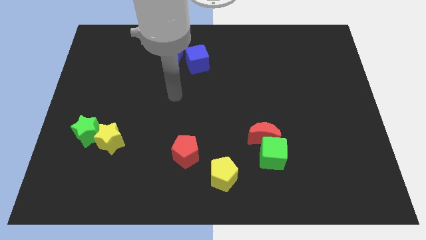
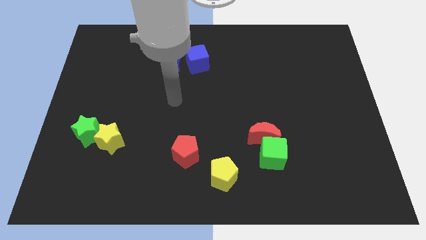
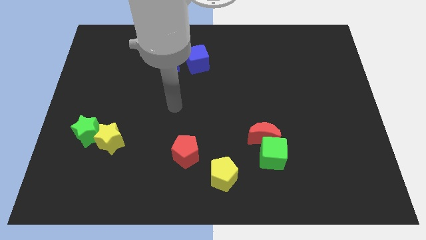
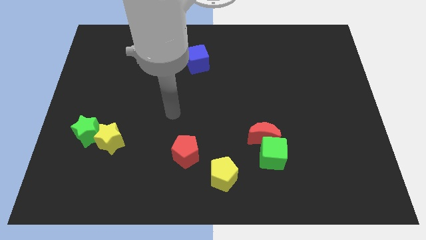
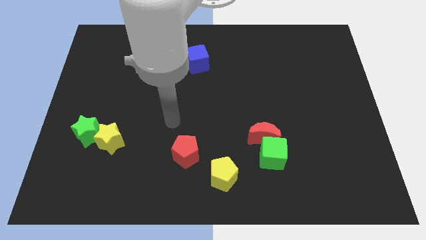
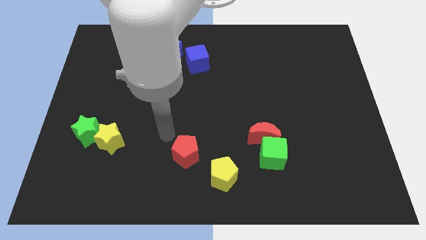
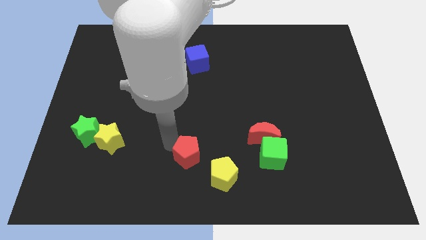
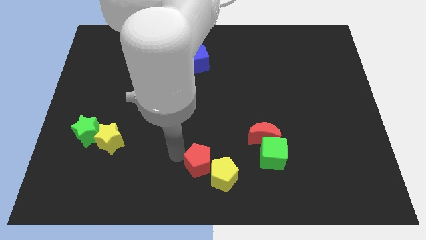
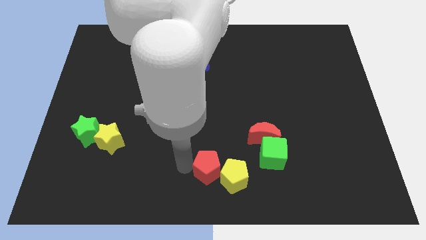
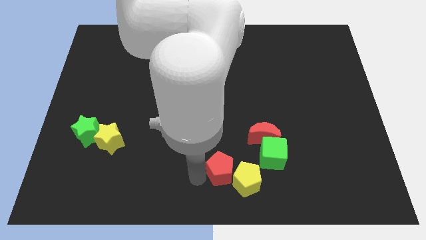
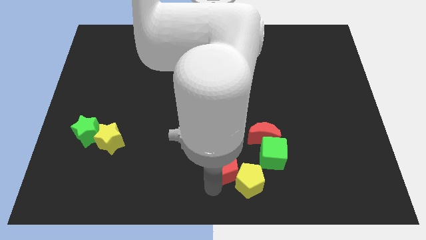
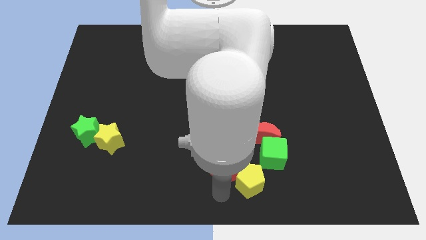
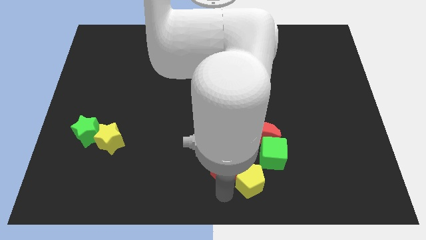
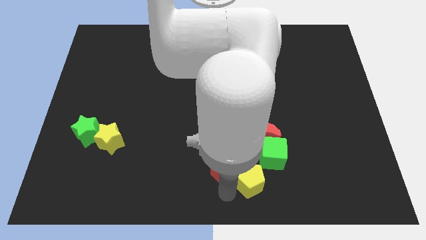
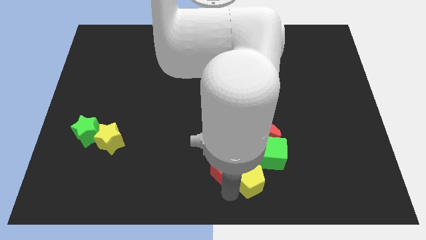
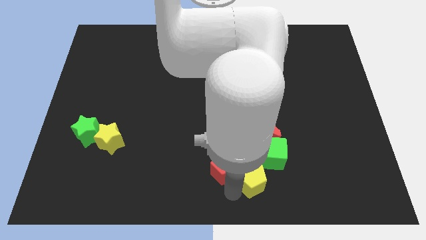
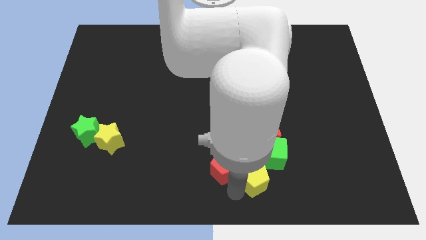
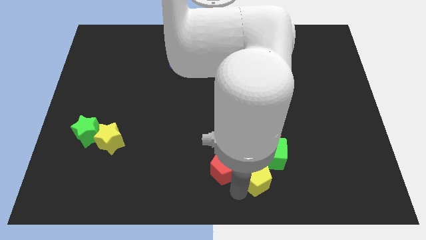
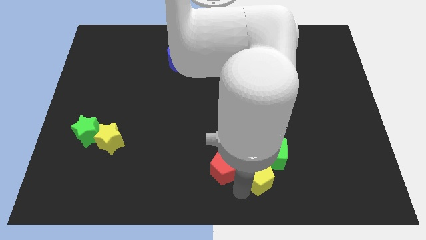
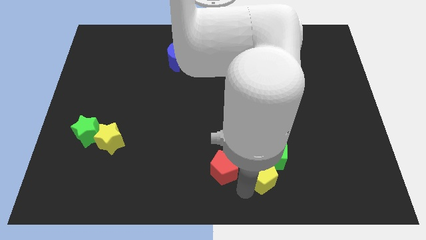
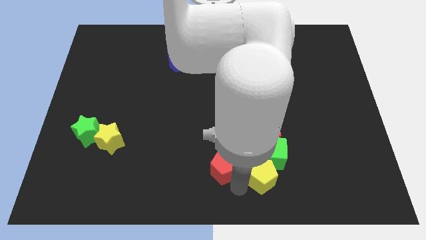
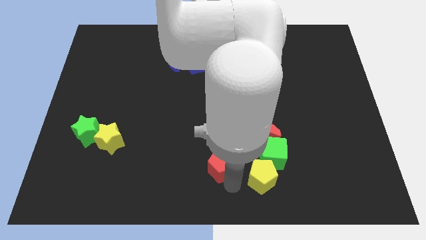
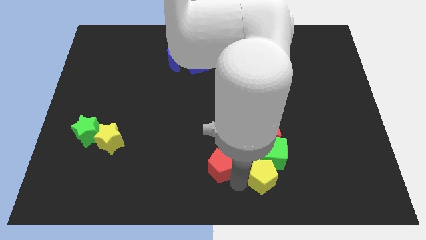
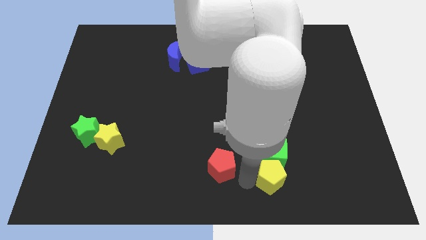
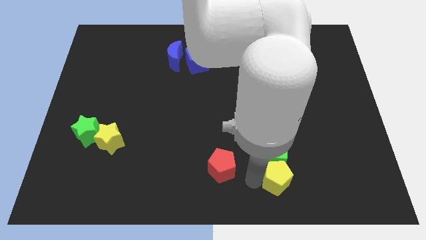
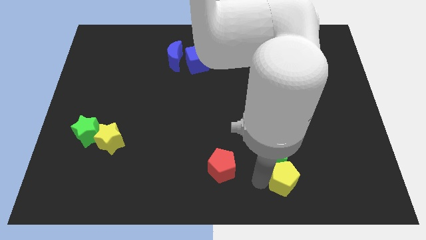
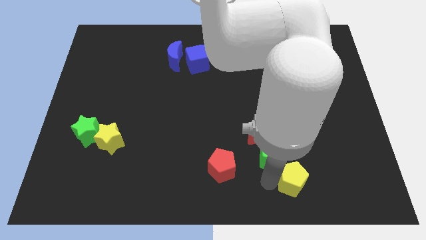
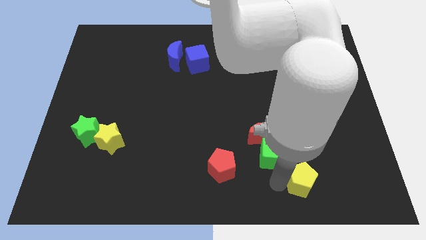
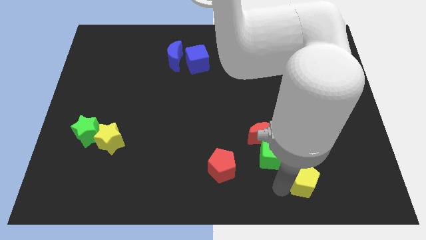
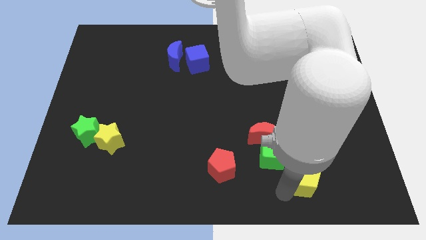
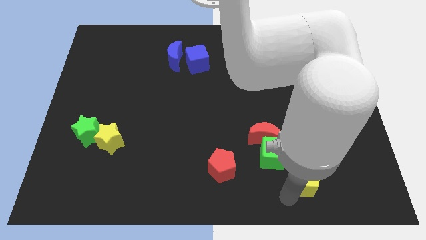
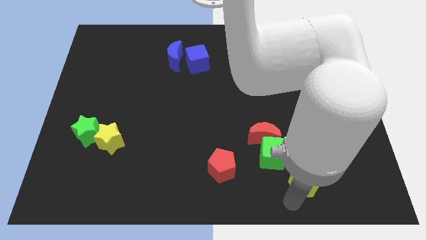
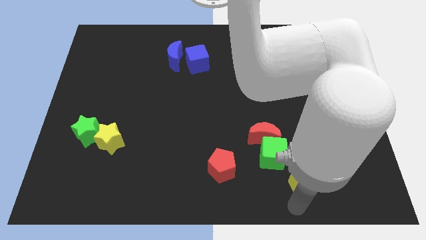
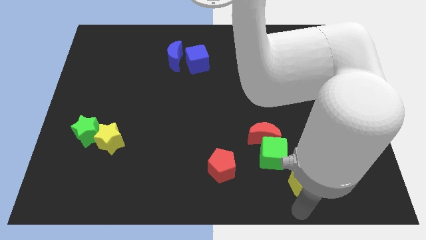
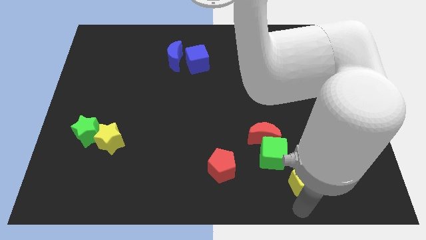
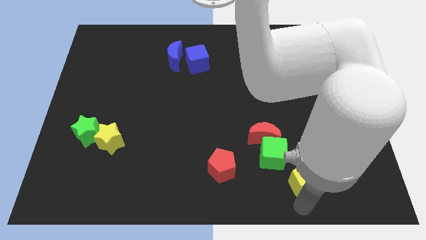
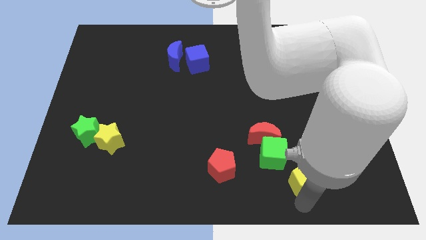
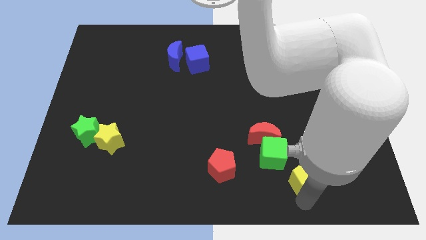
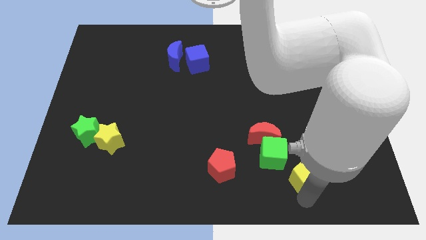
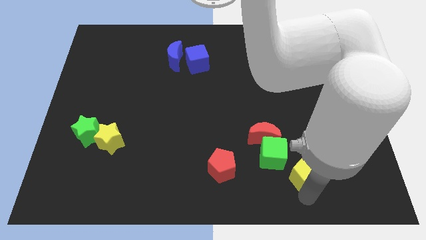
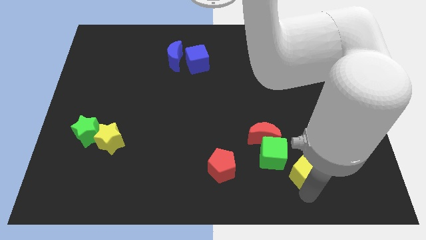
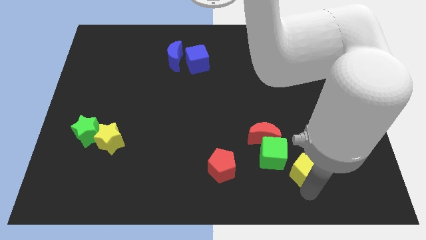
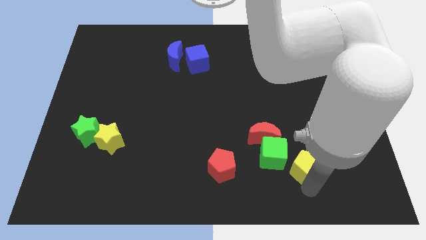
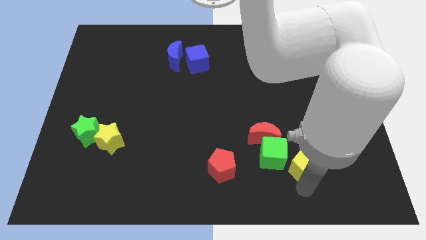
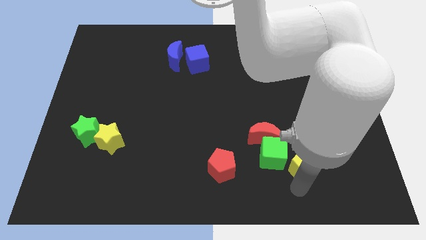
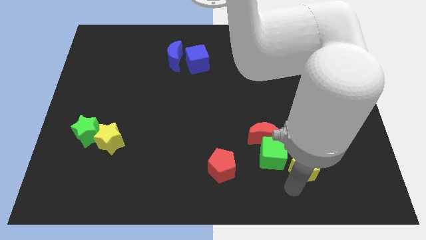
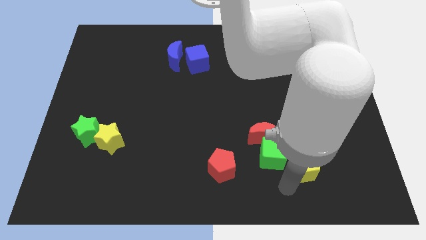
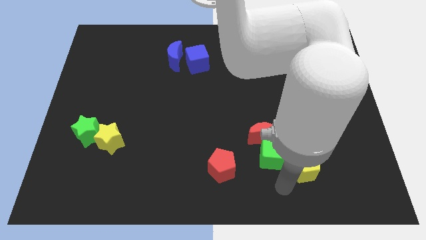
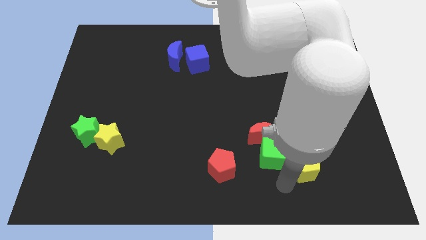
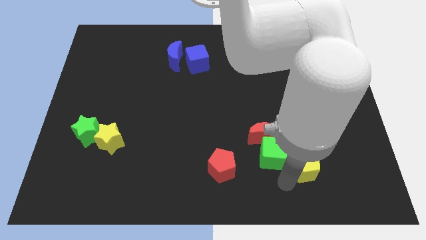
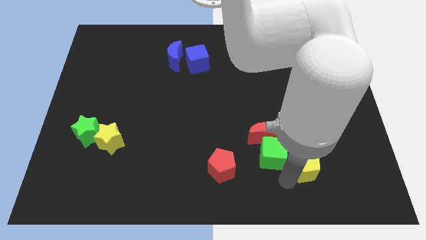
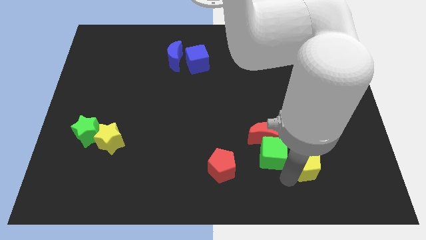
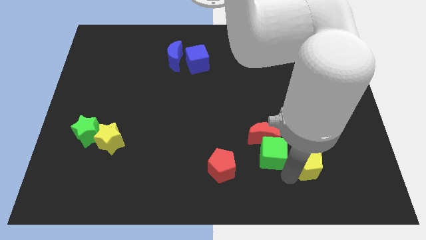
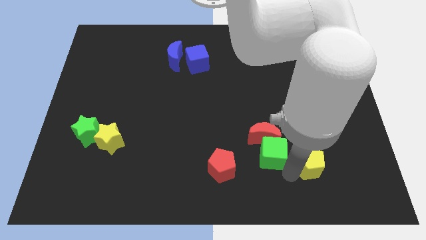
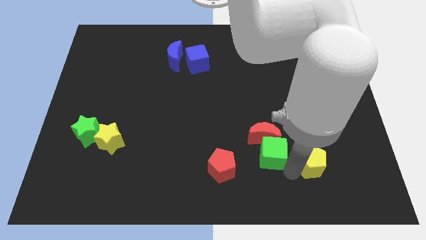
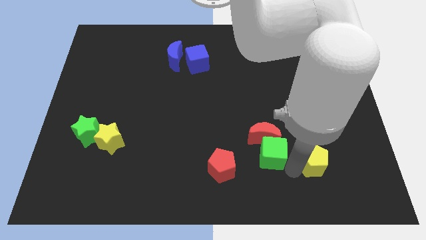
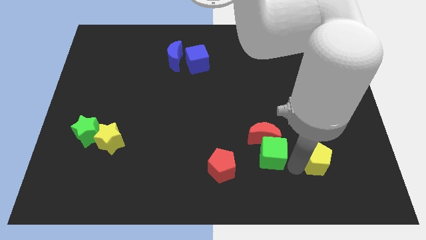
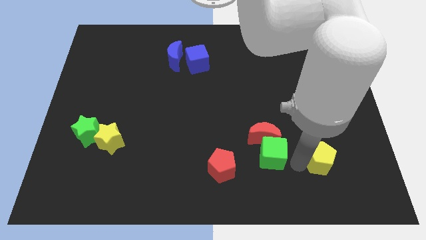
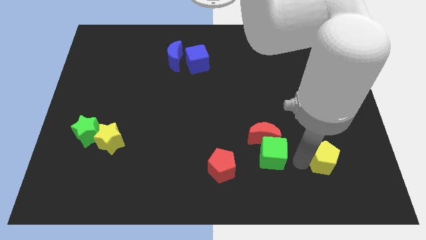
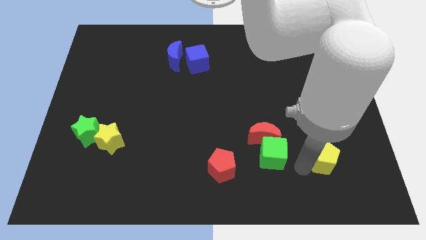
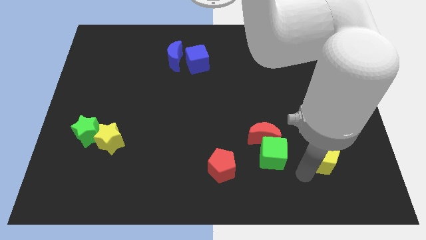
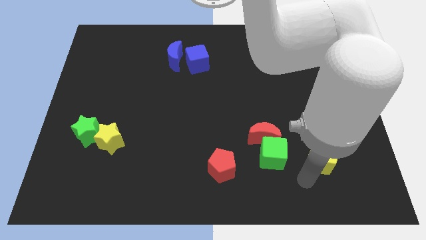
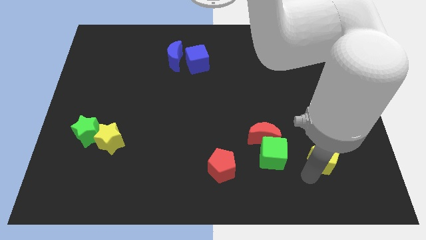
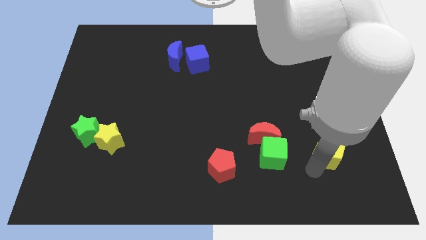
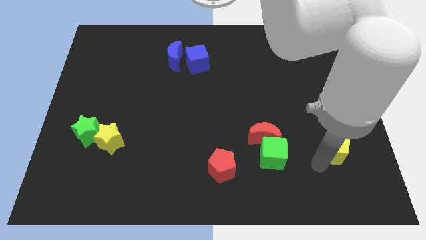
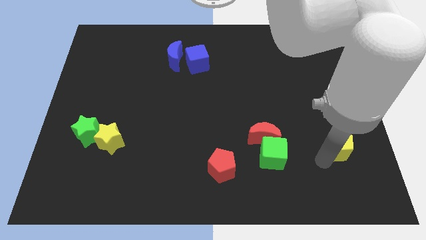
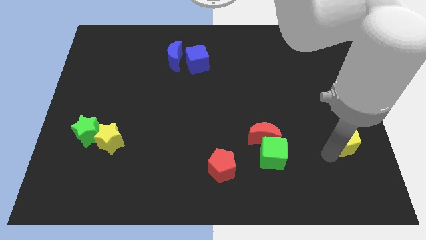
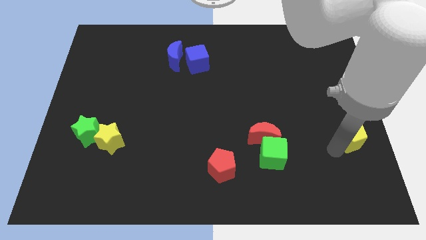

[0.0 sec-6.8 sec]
push the yellow pentagon to the center right
